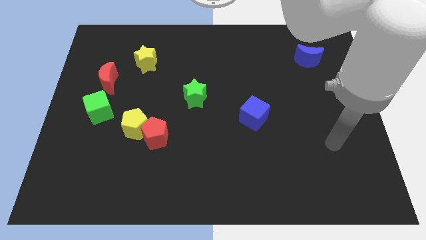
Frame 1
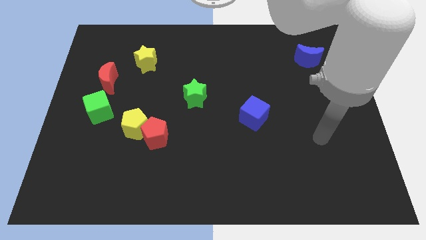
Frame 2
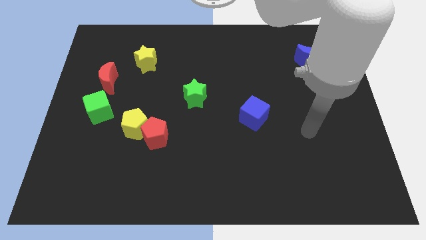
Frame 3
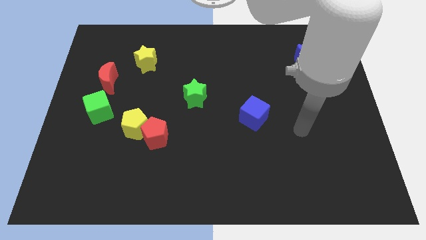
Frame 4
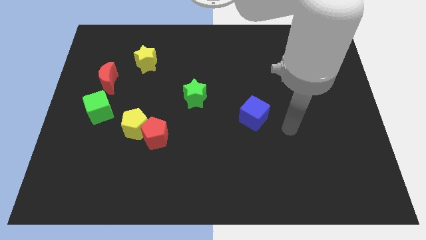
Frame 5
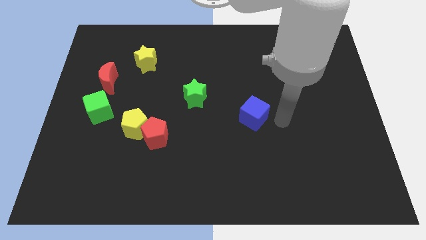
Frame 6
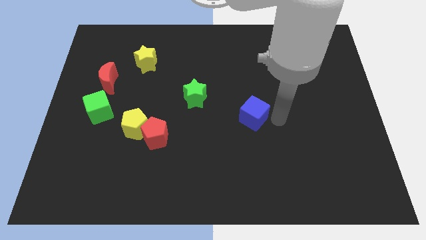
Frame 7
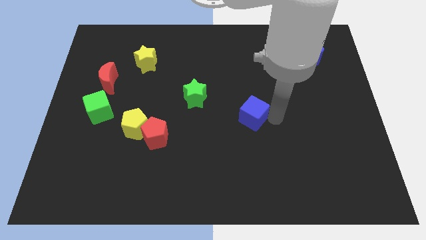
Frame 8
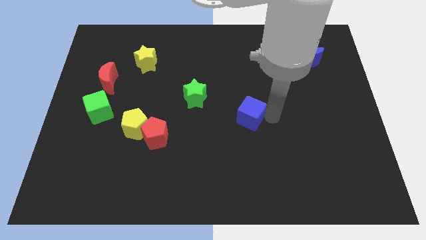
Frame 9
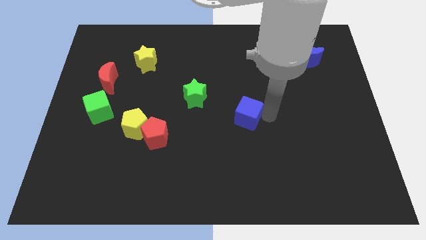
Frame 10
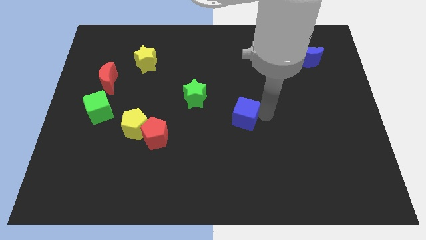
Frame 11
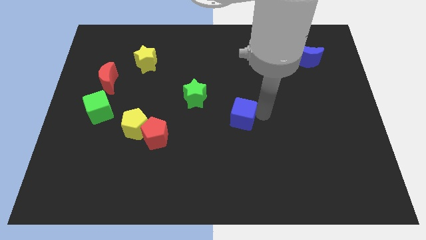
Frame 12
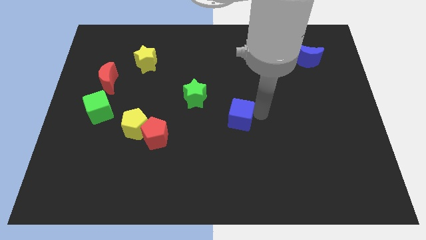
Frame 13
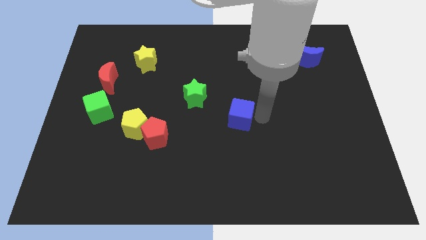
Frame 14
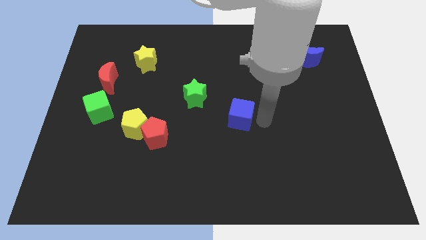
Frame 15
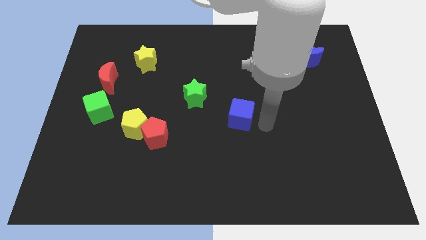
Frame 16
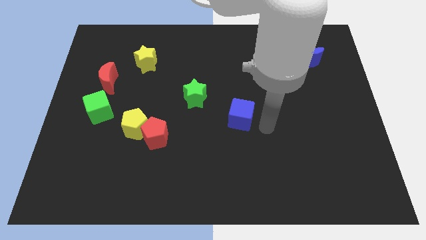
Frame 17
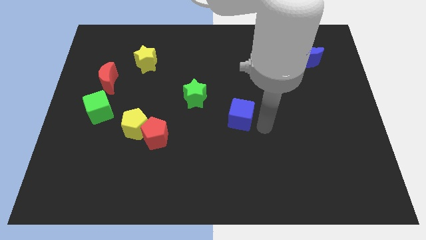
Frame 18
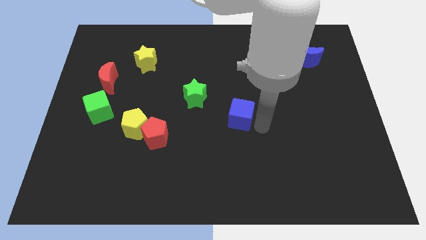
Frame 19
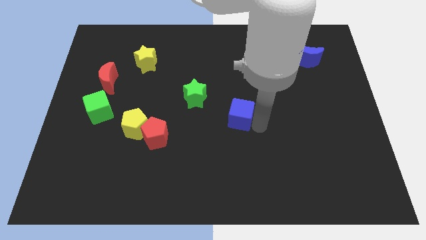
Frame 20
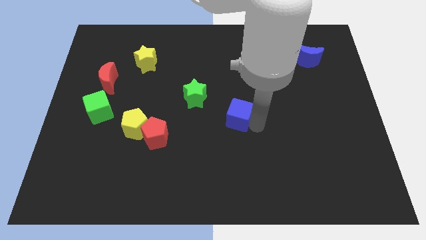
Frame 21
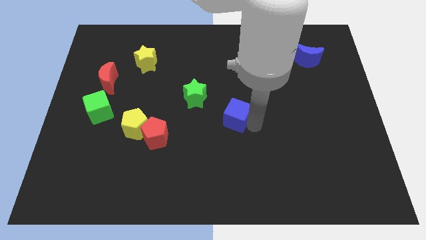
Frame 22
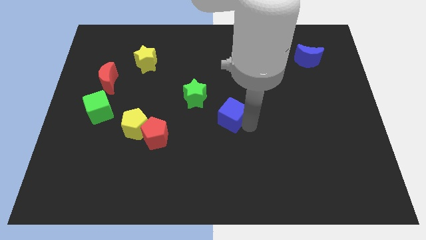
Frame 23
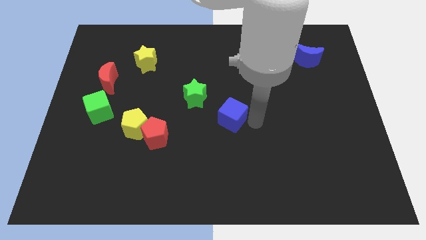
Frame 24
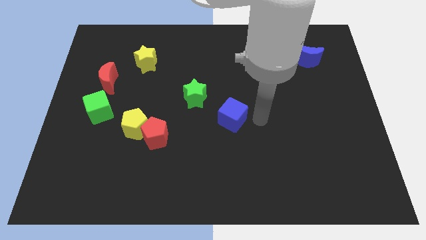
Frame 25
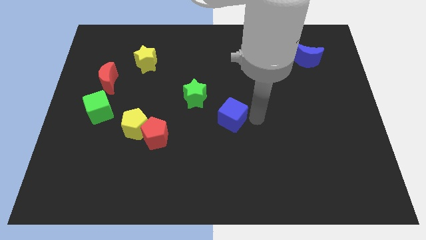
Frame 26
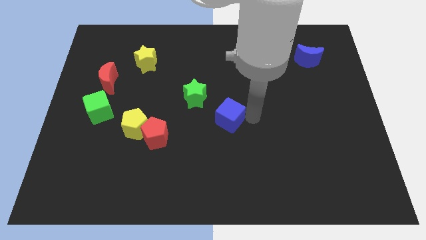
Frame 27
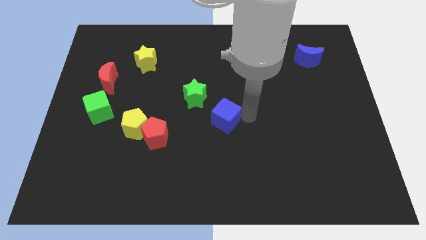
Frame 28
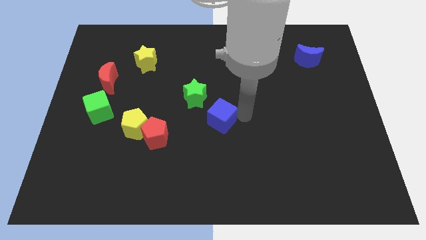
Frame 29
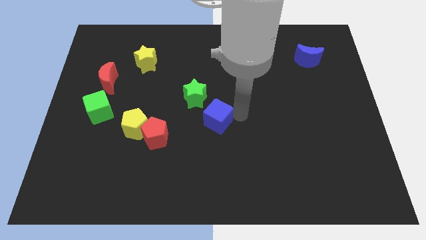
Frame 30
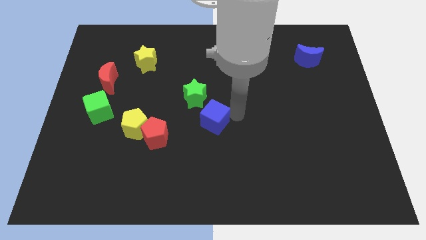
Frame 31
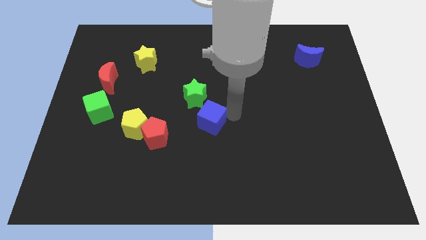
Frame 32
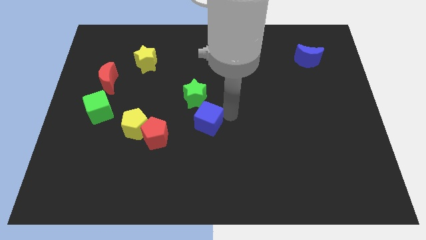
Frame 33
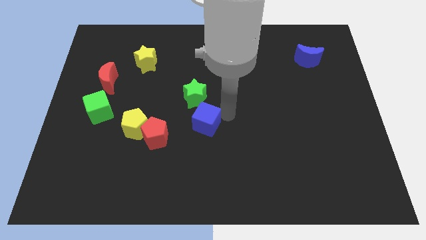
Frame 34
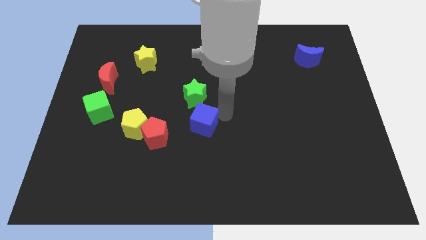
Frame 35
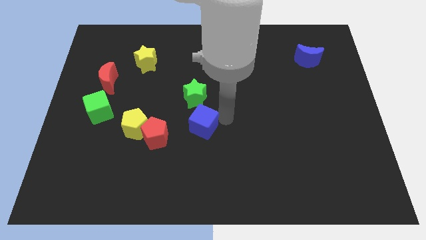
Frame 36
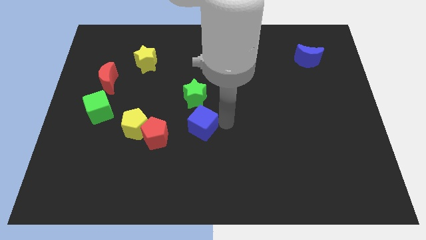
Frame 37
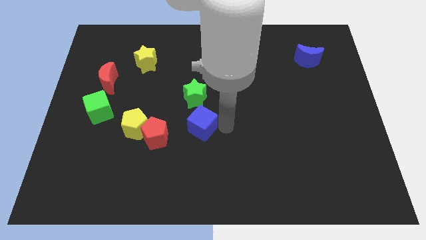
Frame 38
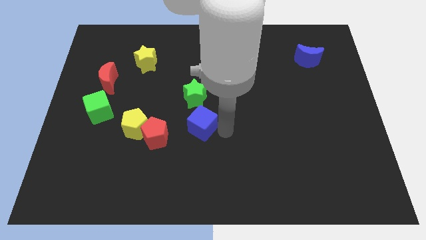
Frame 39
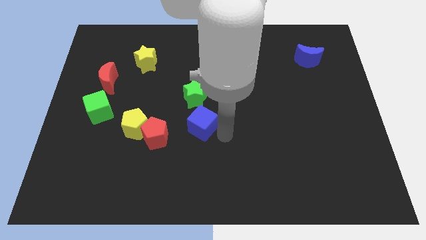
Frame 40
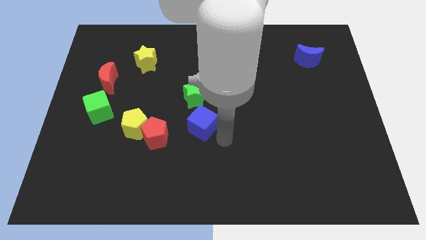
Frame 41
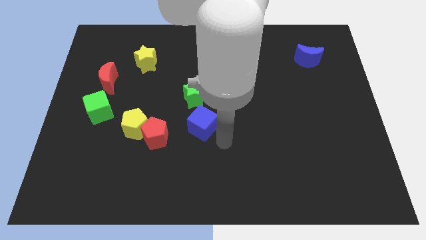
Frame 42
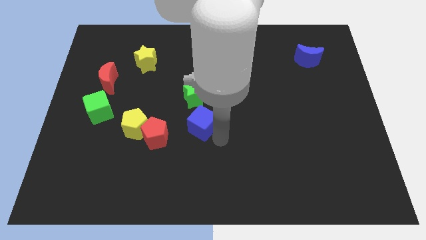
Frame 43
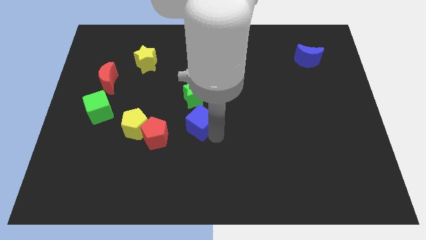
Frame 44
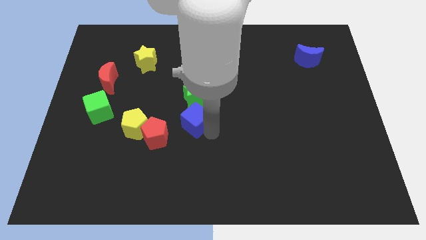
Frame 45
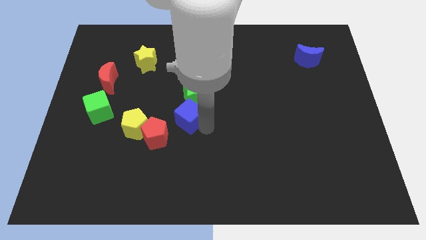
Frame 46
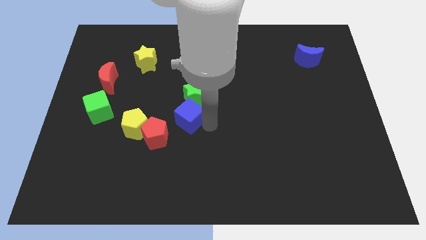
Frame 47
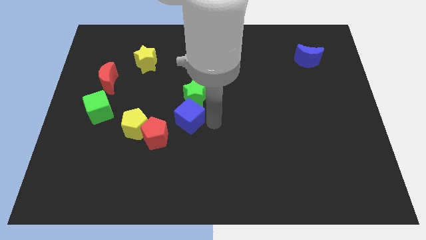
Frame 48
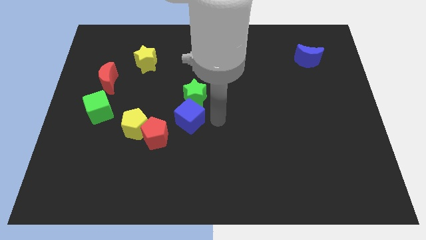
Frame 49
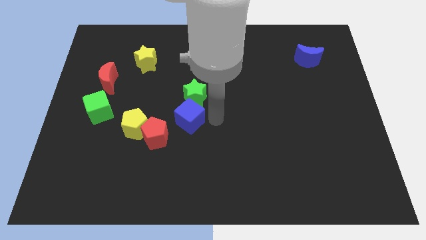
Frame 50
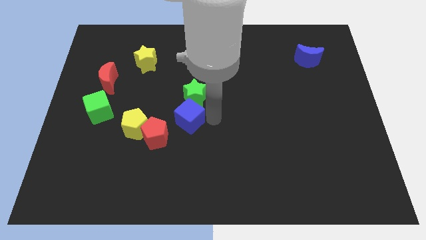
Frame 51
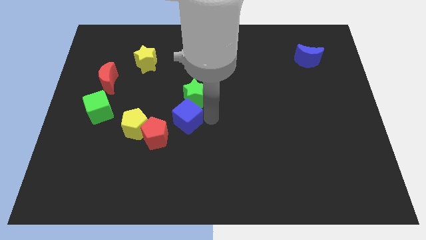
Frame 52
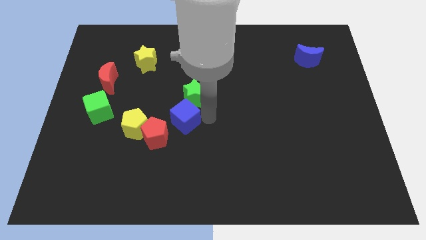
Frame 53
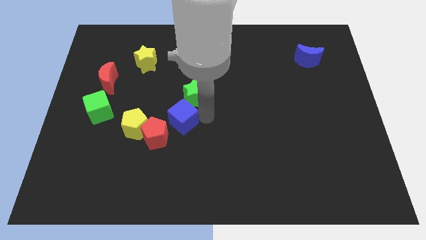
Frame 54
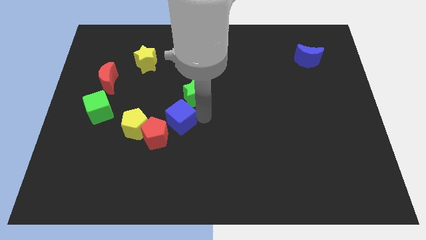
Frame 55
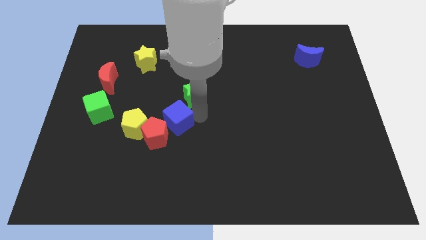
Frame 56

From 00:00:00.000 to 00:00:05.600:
push the blue cube above the red pentagon

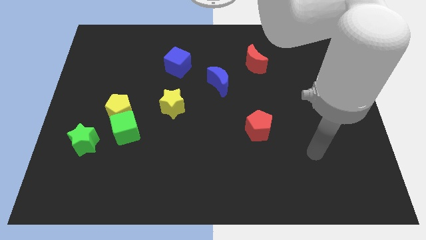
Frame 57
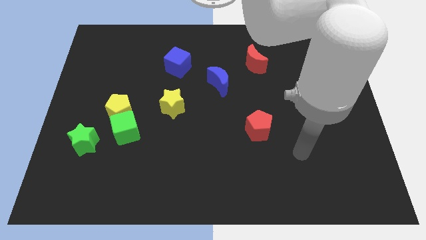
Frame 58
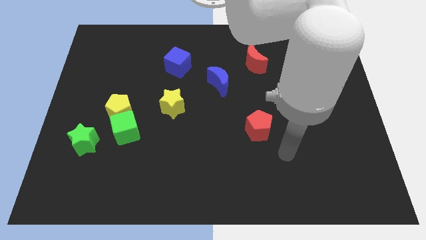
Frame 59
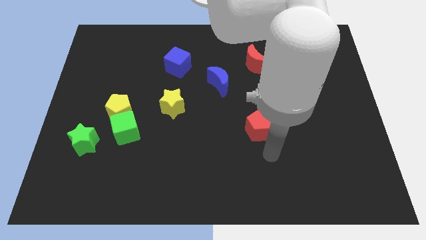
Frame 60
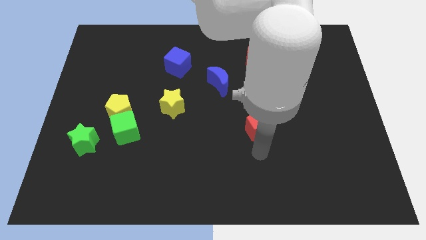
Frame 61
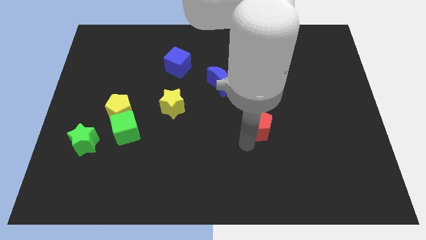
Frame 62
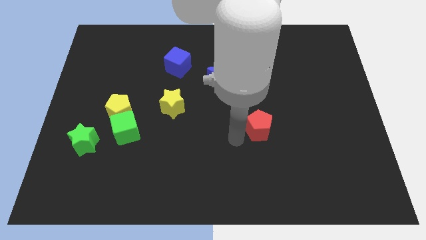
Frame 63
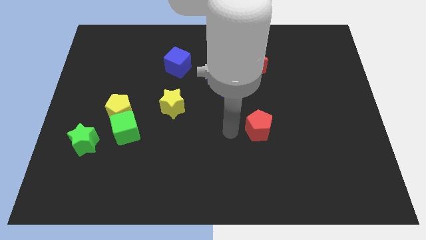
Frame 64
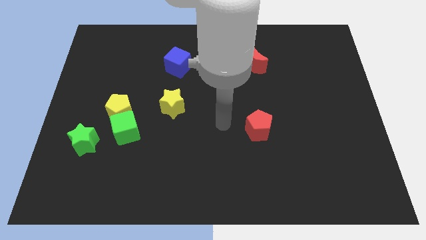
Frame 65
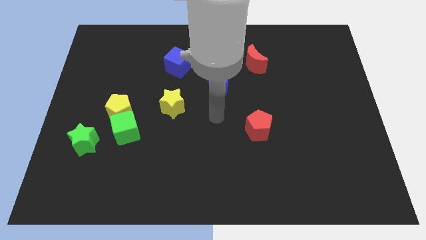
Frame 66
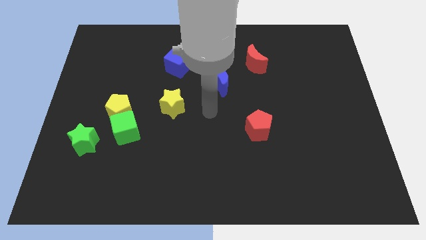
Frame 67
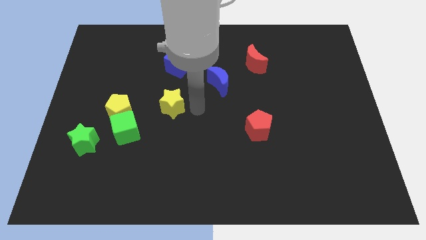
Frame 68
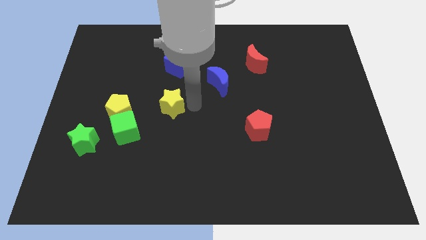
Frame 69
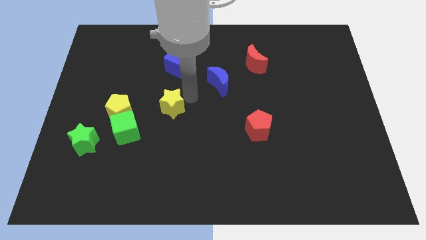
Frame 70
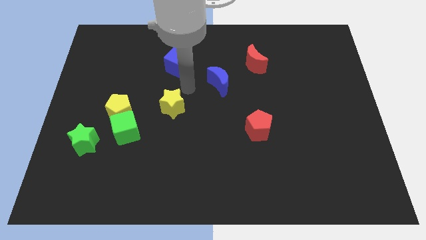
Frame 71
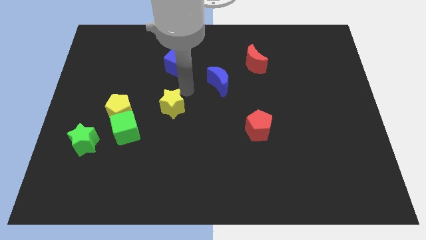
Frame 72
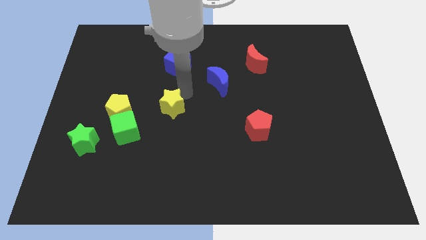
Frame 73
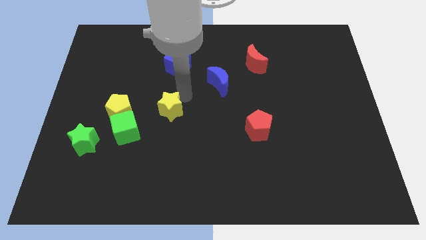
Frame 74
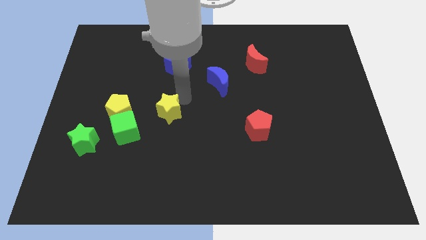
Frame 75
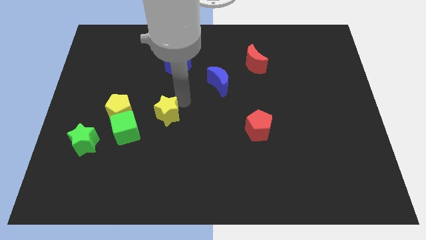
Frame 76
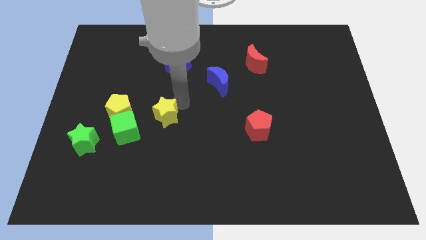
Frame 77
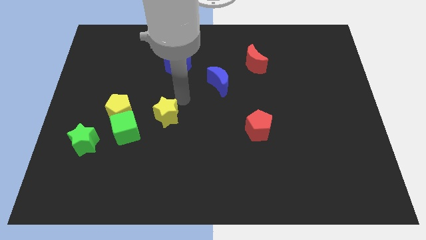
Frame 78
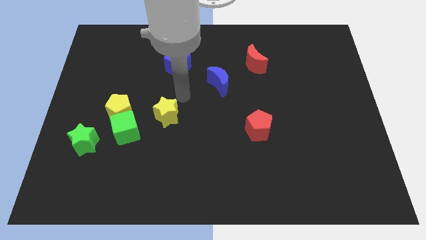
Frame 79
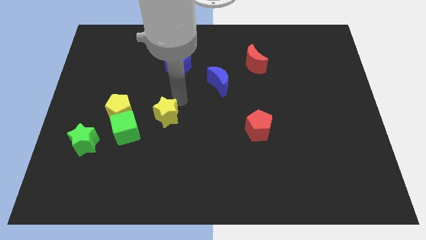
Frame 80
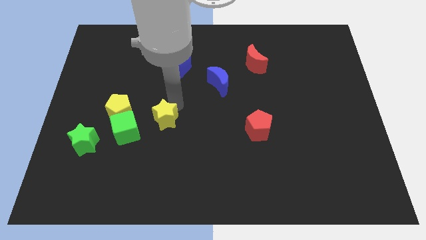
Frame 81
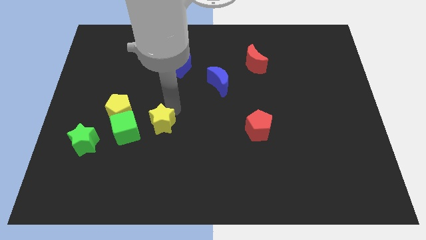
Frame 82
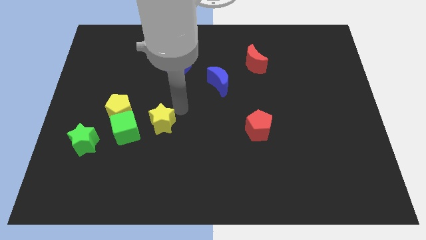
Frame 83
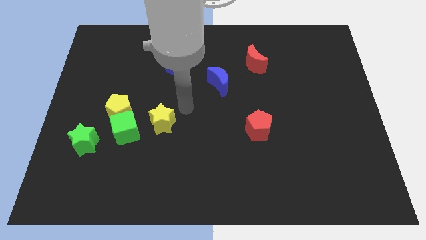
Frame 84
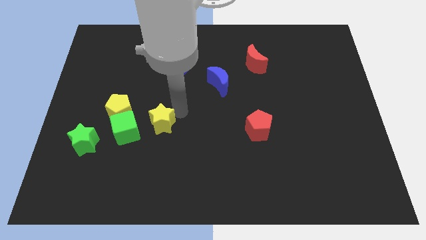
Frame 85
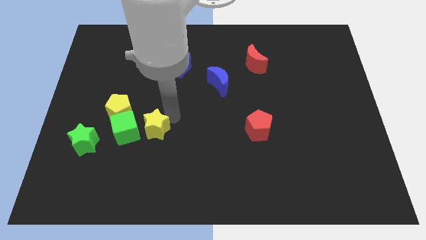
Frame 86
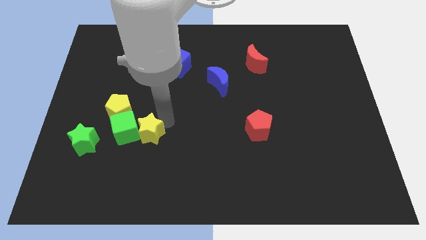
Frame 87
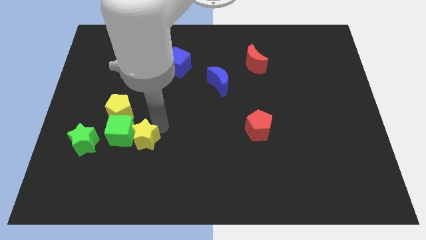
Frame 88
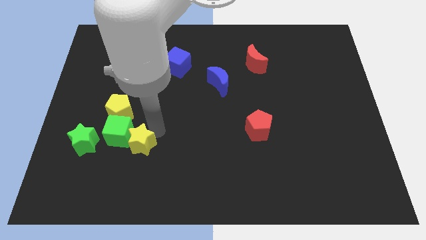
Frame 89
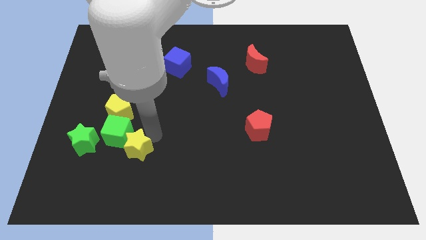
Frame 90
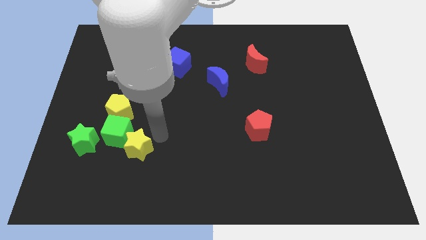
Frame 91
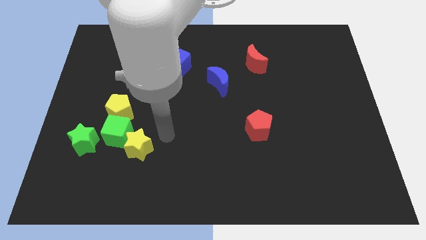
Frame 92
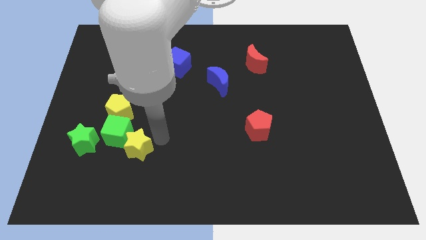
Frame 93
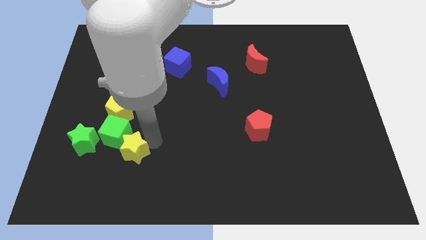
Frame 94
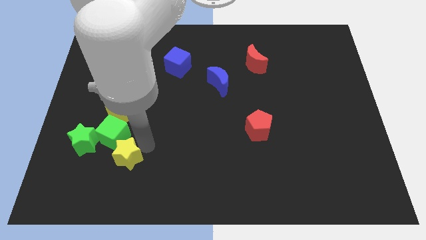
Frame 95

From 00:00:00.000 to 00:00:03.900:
put the yellow star to the bottom right side of the green star
